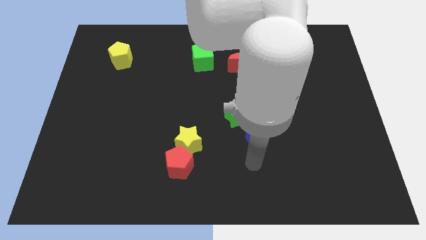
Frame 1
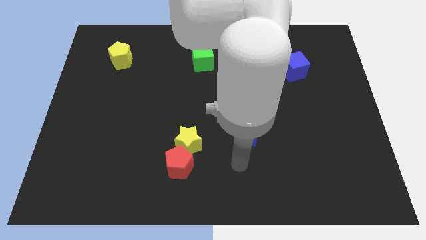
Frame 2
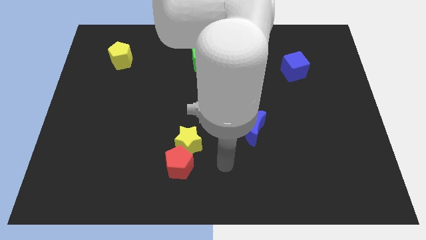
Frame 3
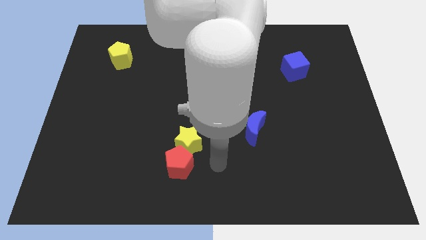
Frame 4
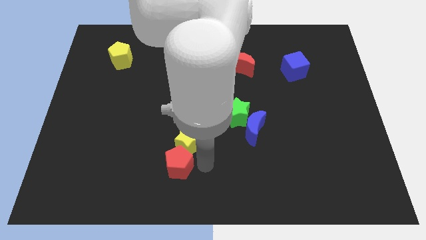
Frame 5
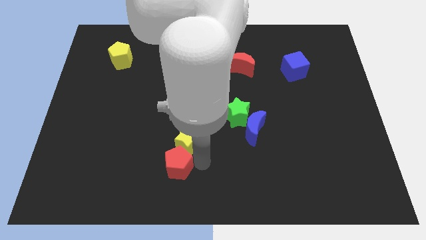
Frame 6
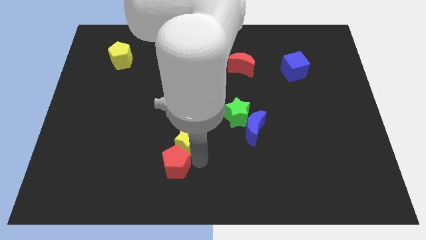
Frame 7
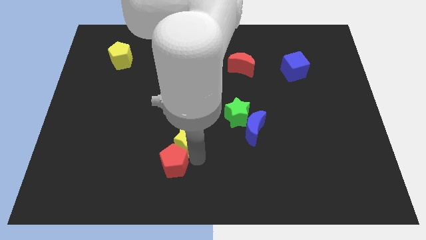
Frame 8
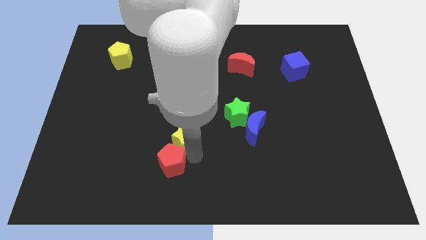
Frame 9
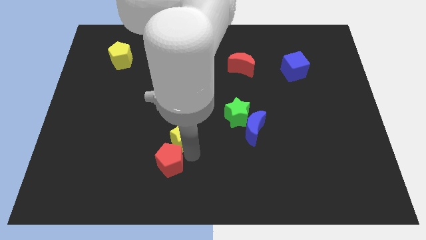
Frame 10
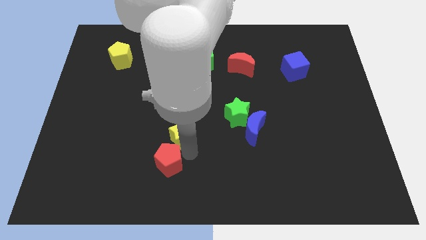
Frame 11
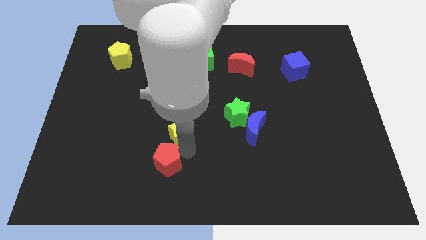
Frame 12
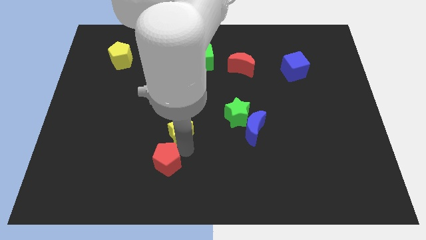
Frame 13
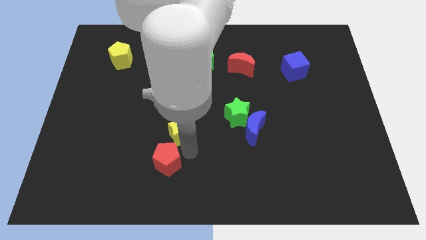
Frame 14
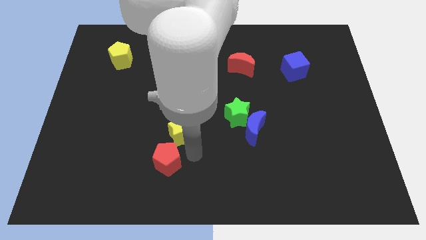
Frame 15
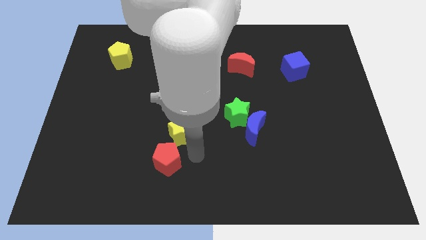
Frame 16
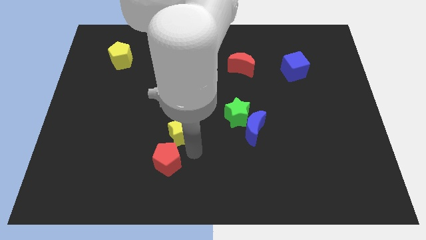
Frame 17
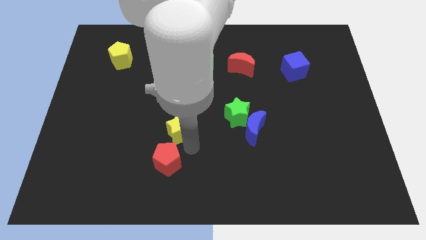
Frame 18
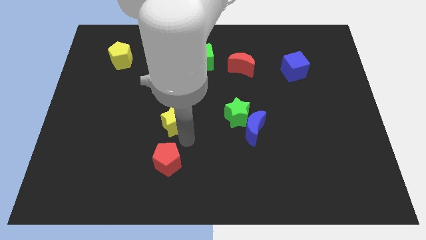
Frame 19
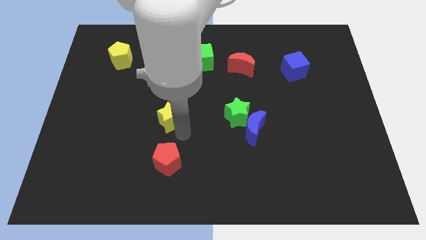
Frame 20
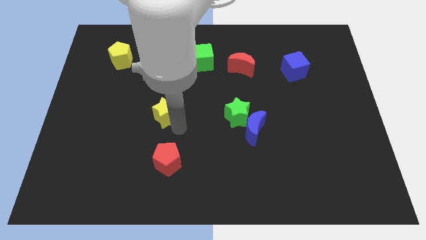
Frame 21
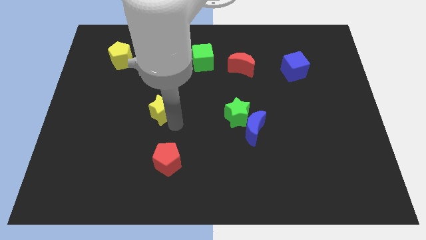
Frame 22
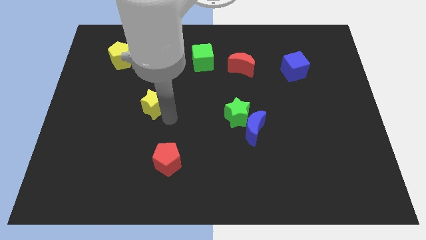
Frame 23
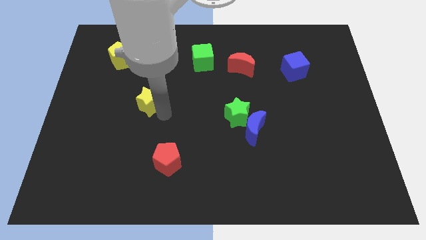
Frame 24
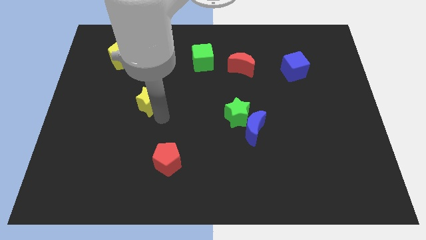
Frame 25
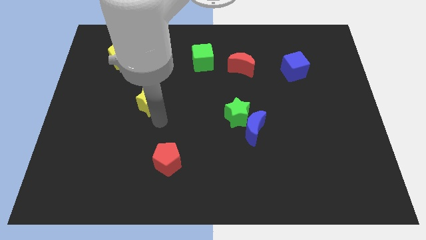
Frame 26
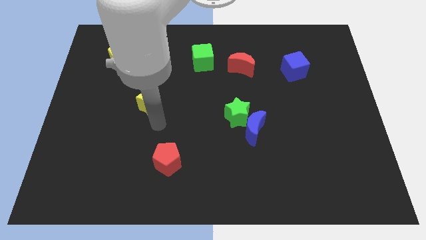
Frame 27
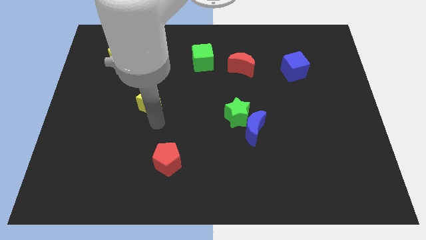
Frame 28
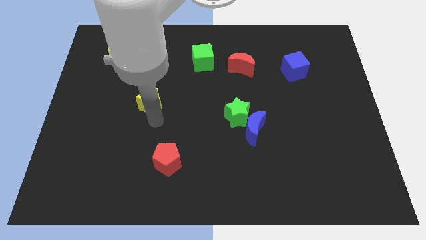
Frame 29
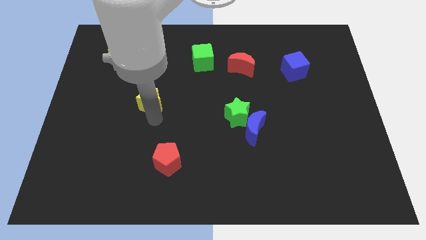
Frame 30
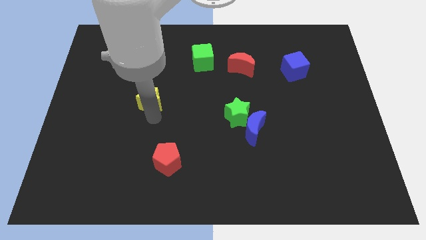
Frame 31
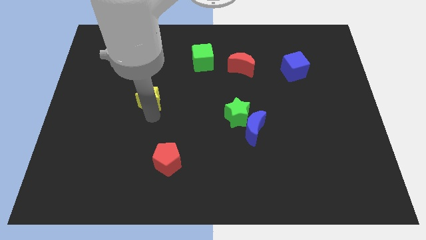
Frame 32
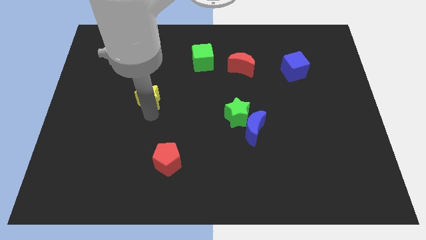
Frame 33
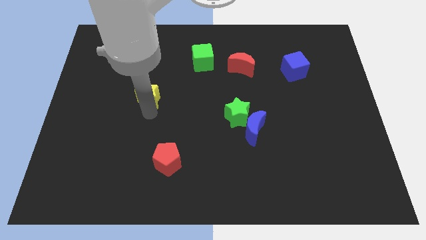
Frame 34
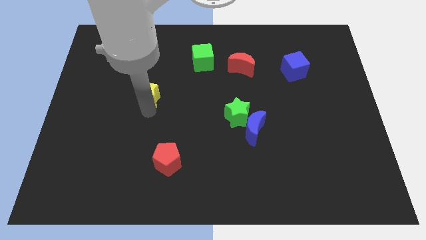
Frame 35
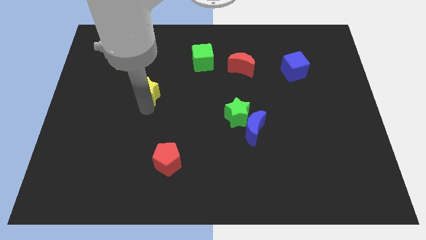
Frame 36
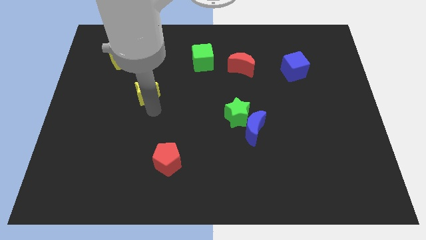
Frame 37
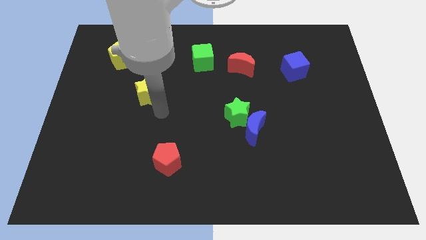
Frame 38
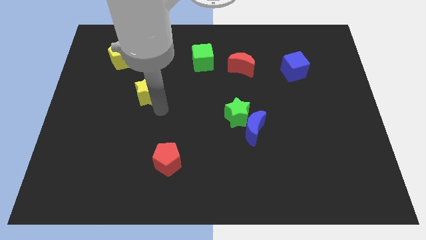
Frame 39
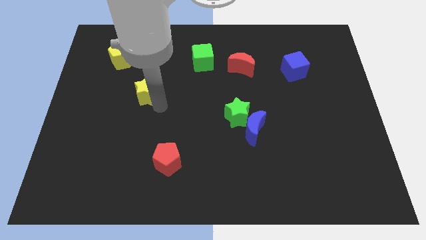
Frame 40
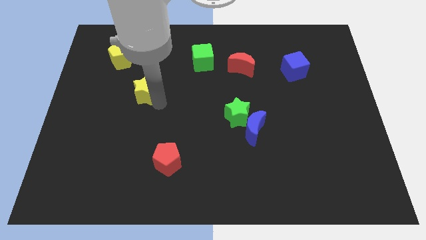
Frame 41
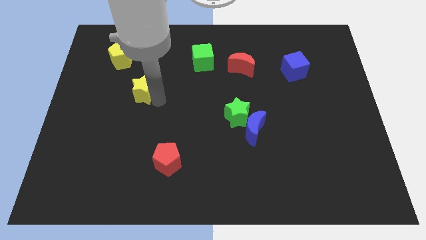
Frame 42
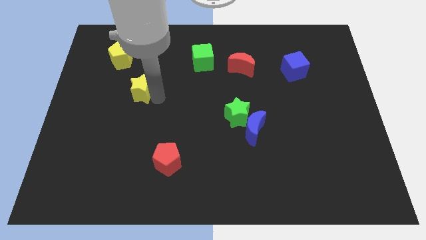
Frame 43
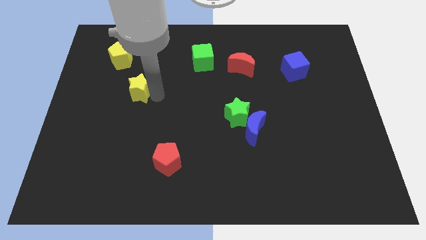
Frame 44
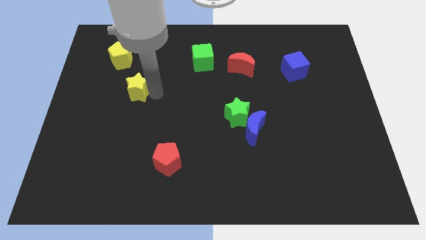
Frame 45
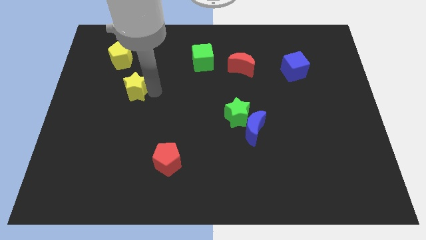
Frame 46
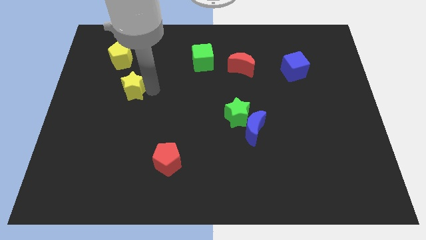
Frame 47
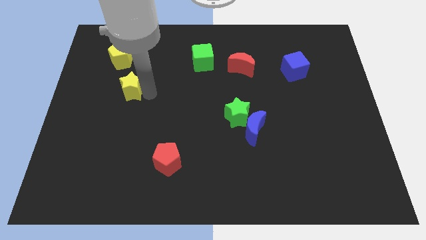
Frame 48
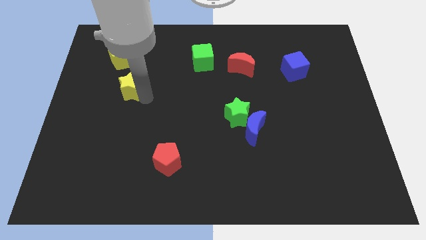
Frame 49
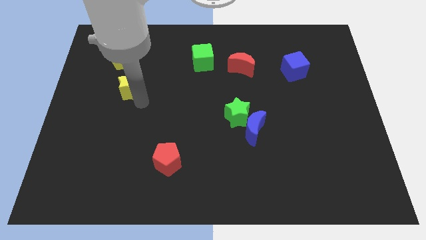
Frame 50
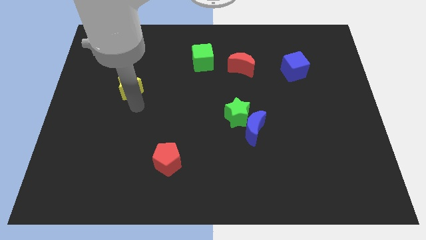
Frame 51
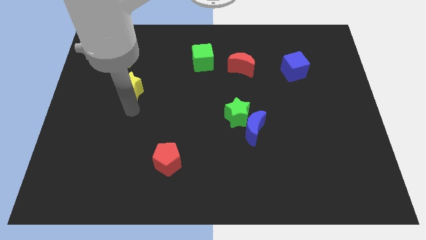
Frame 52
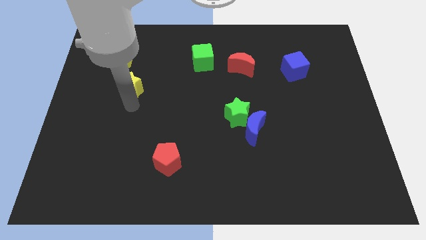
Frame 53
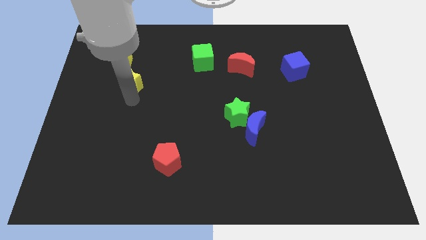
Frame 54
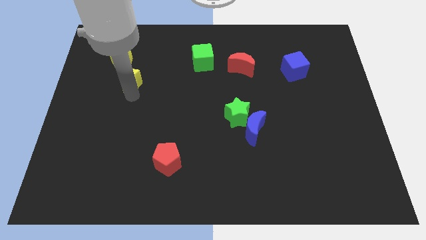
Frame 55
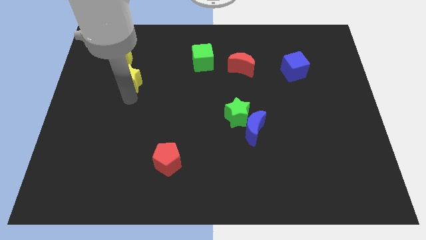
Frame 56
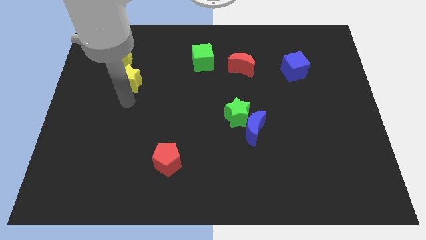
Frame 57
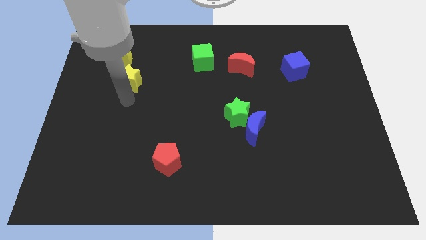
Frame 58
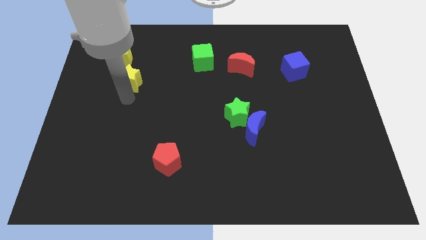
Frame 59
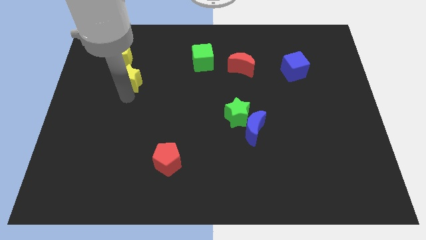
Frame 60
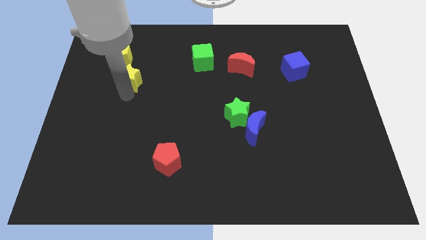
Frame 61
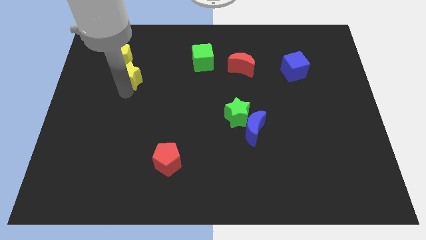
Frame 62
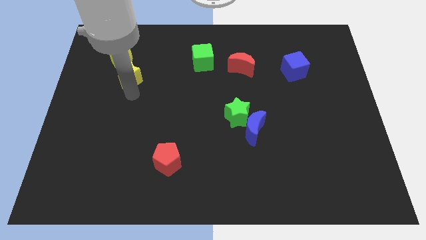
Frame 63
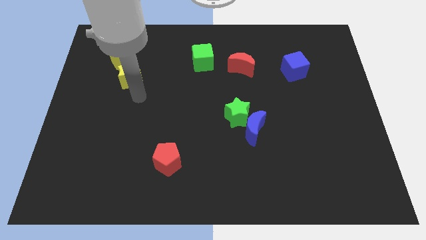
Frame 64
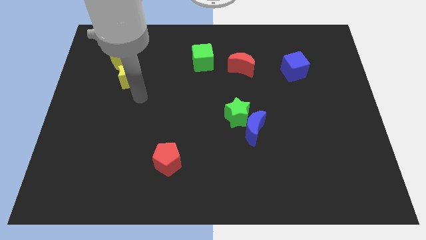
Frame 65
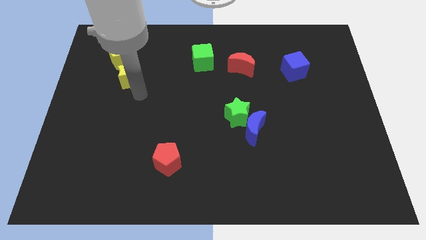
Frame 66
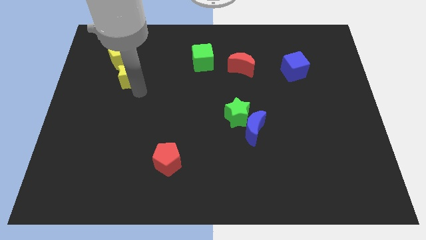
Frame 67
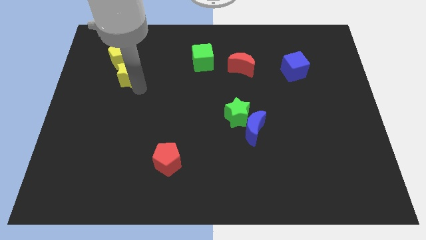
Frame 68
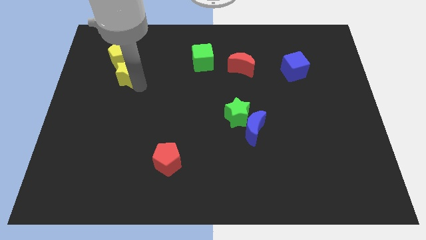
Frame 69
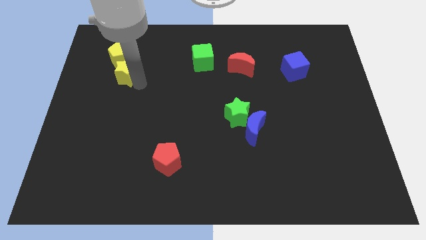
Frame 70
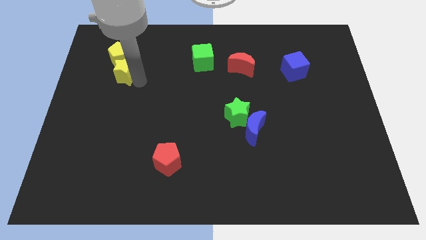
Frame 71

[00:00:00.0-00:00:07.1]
push the yellow star close to the yellow pentagon
